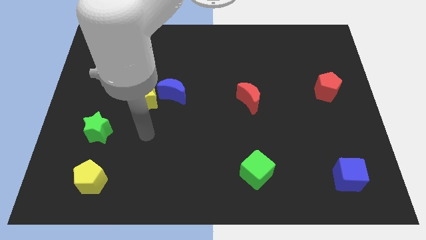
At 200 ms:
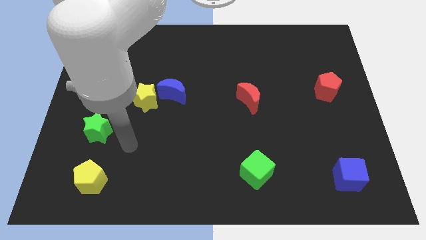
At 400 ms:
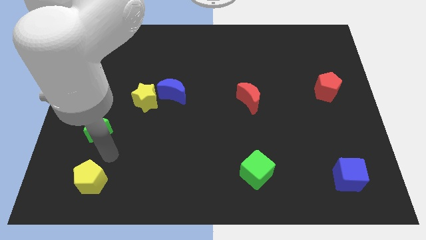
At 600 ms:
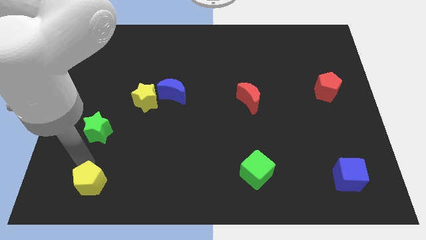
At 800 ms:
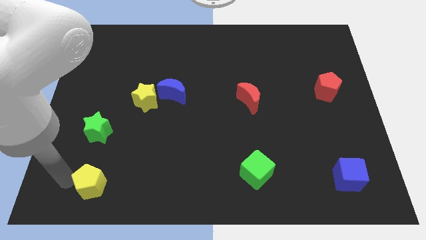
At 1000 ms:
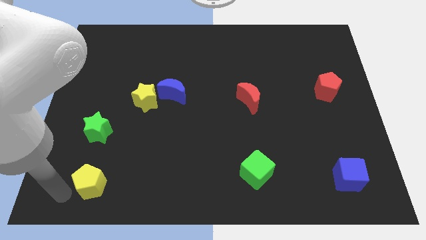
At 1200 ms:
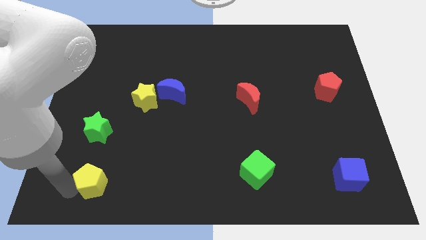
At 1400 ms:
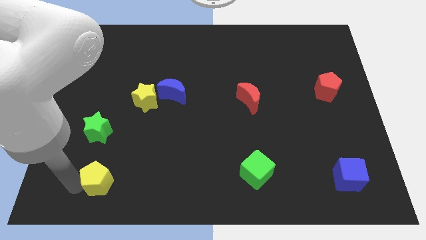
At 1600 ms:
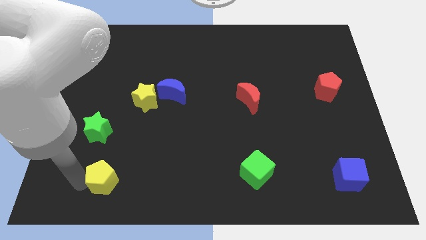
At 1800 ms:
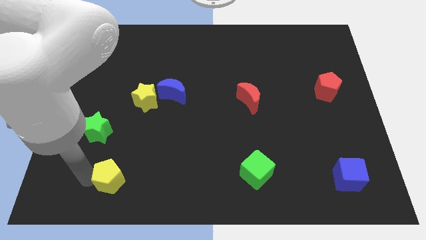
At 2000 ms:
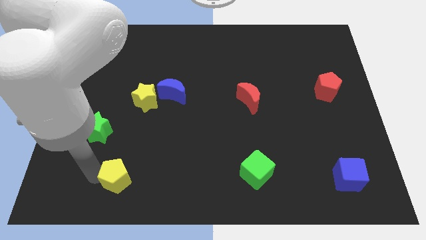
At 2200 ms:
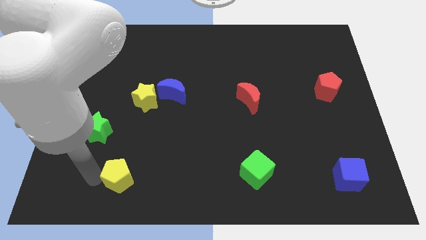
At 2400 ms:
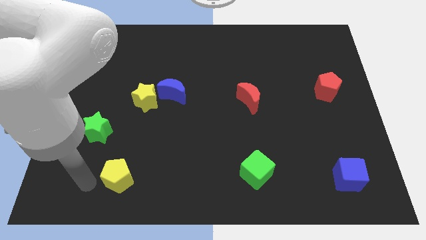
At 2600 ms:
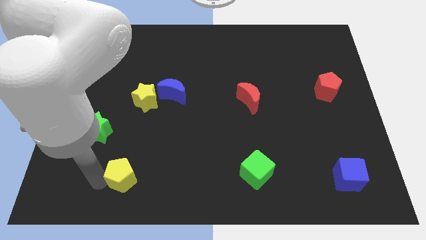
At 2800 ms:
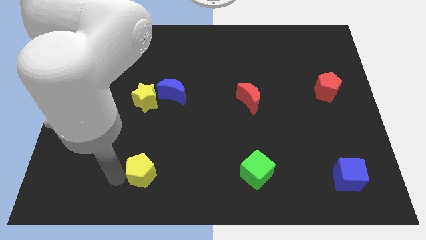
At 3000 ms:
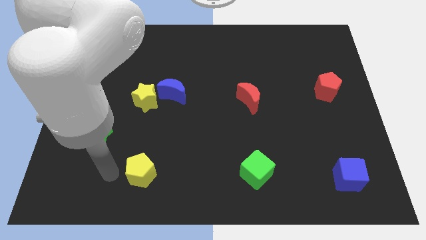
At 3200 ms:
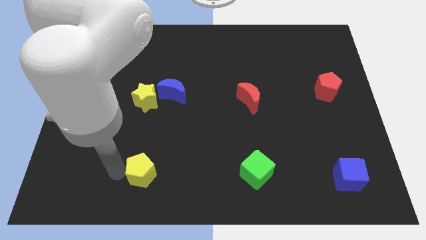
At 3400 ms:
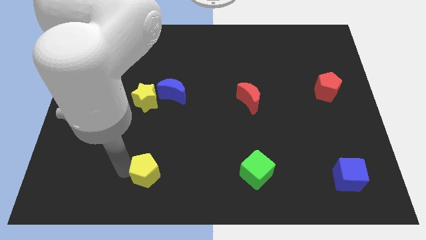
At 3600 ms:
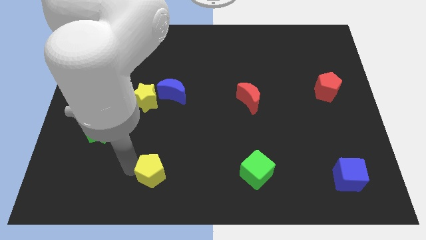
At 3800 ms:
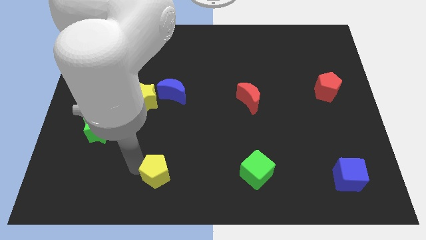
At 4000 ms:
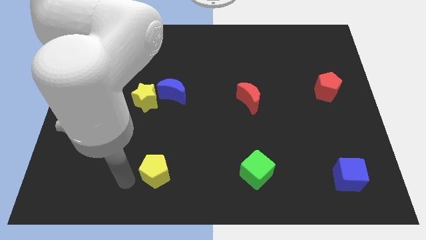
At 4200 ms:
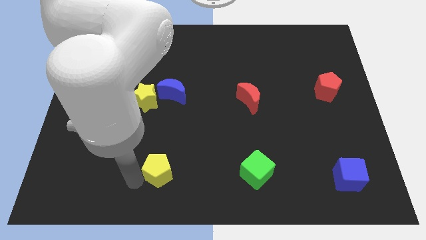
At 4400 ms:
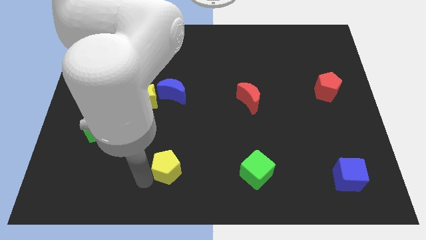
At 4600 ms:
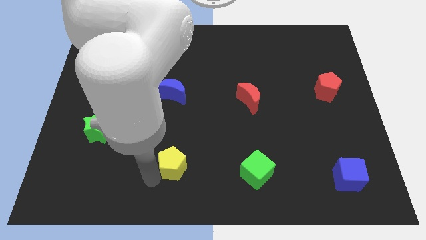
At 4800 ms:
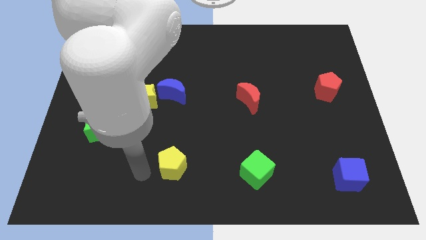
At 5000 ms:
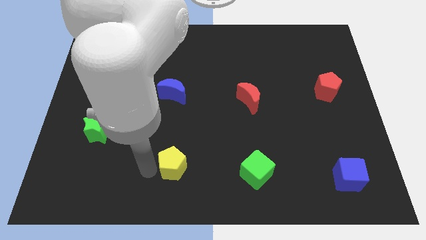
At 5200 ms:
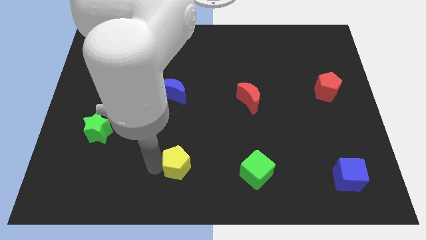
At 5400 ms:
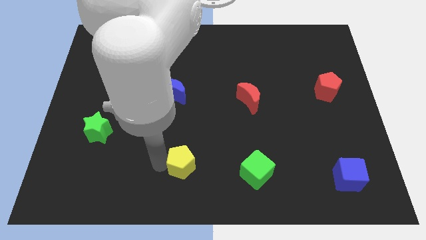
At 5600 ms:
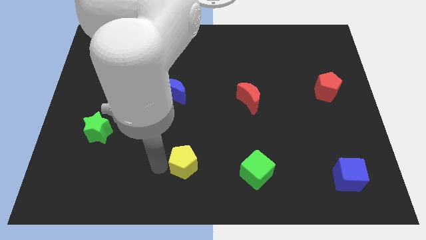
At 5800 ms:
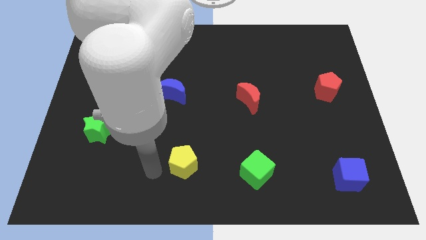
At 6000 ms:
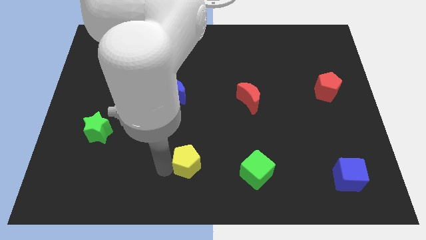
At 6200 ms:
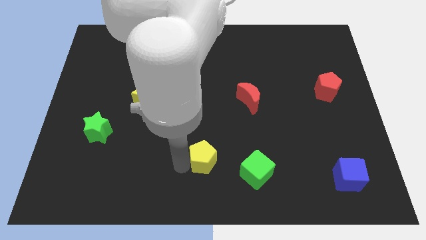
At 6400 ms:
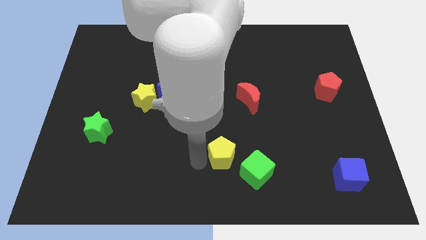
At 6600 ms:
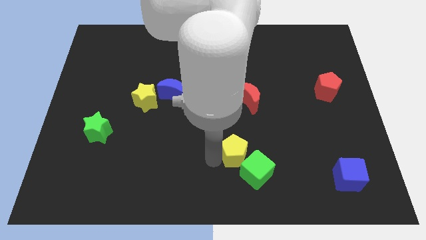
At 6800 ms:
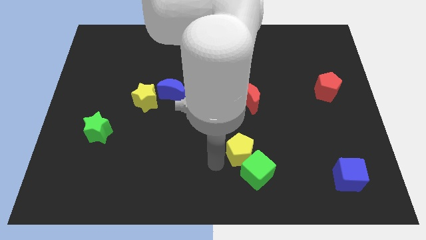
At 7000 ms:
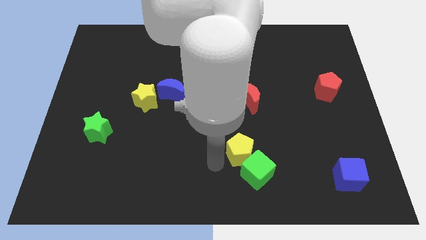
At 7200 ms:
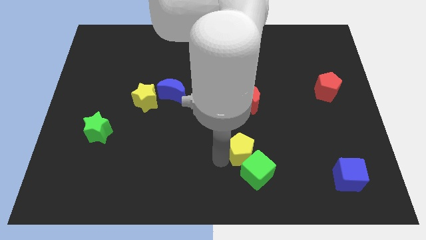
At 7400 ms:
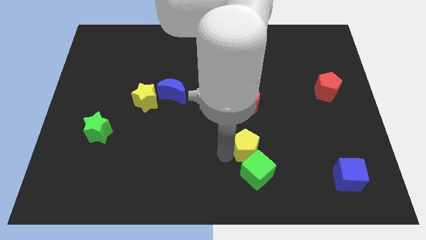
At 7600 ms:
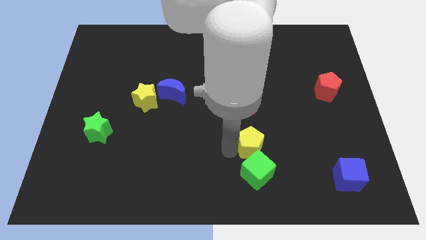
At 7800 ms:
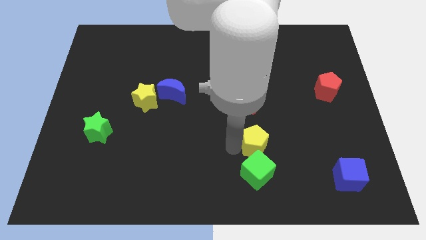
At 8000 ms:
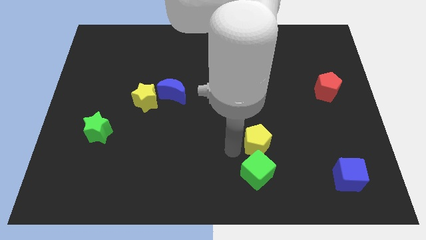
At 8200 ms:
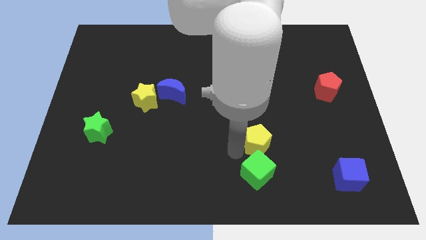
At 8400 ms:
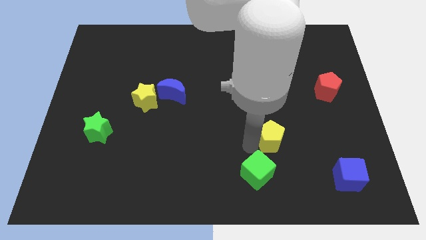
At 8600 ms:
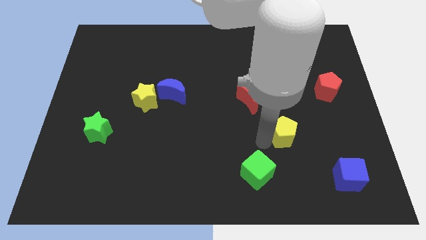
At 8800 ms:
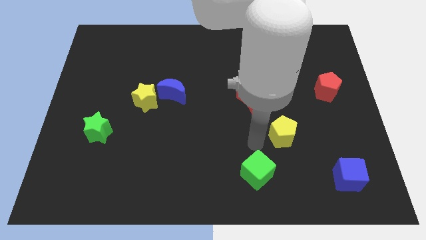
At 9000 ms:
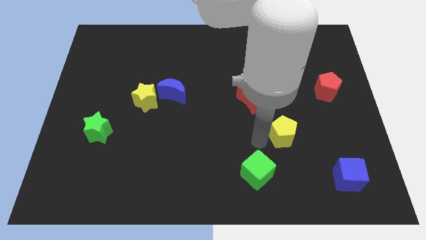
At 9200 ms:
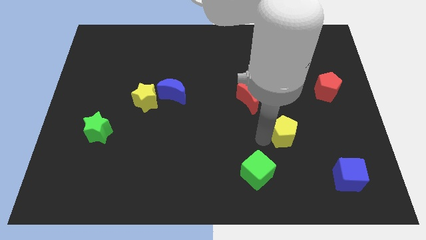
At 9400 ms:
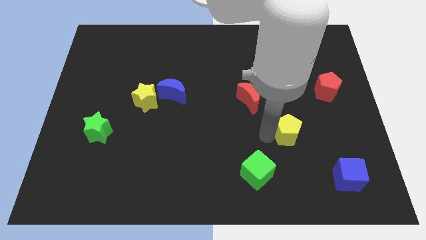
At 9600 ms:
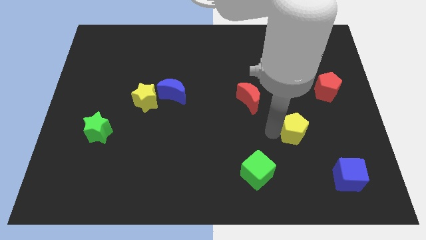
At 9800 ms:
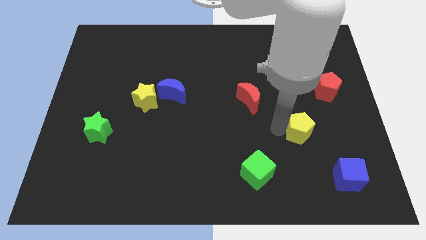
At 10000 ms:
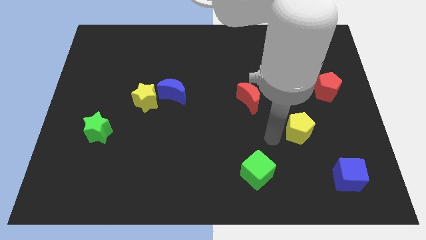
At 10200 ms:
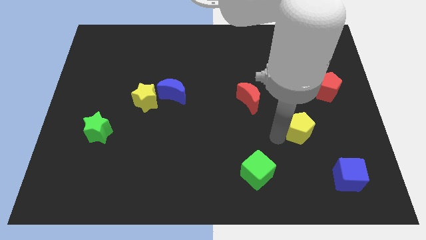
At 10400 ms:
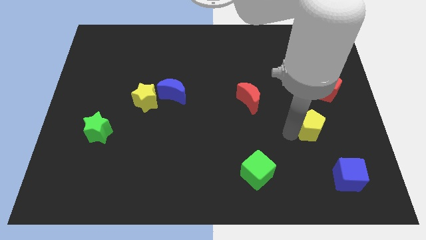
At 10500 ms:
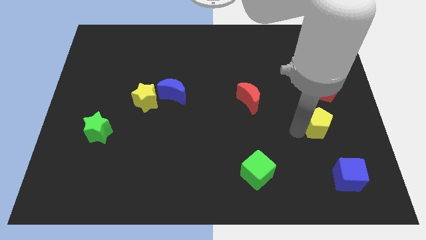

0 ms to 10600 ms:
put the yellow pentagon to the bottom of the red pentagon

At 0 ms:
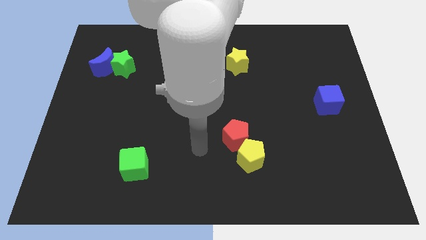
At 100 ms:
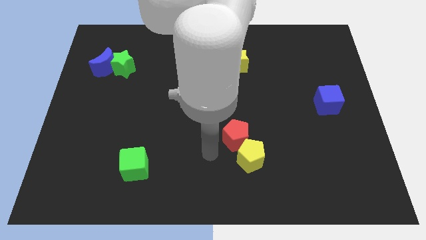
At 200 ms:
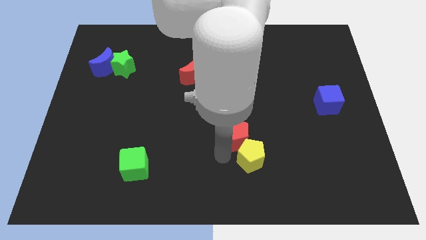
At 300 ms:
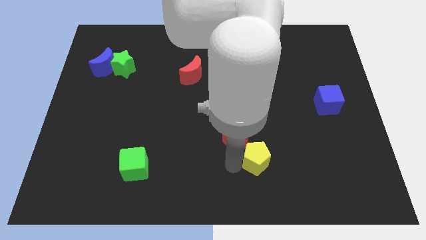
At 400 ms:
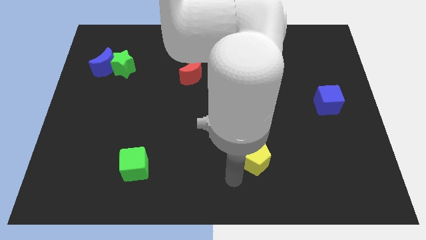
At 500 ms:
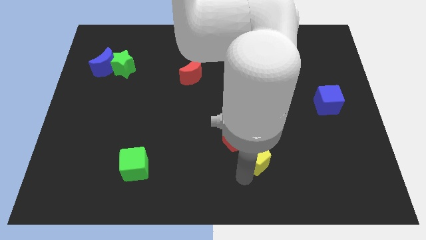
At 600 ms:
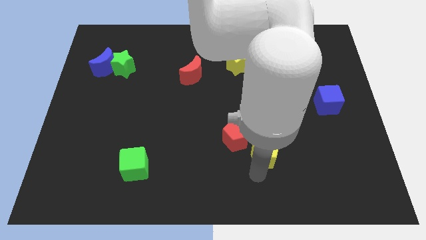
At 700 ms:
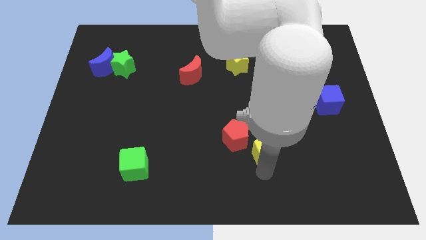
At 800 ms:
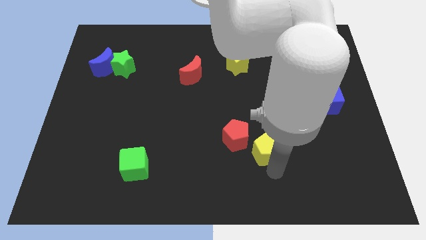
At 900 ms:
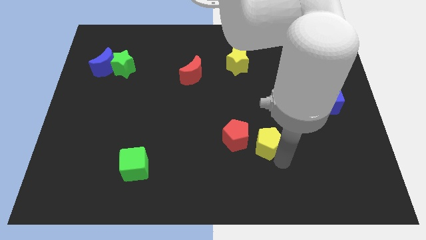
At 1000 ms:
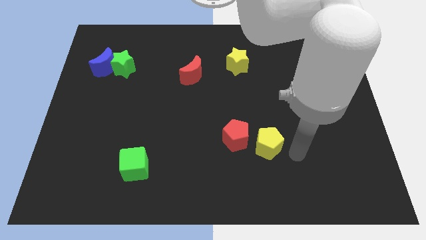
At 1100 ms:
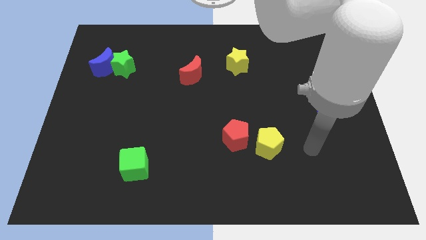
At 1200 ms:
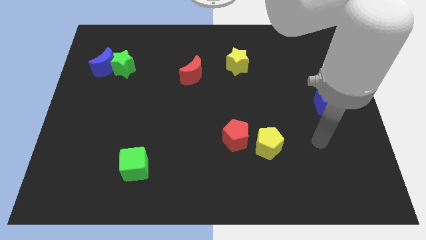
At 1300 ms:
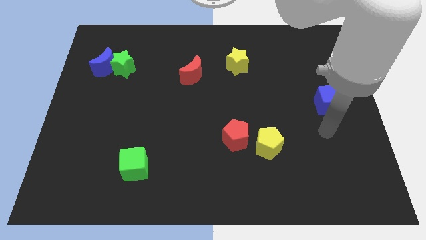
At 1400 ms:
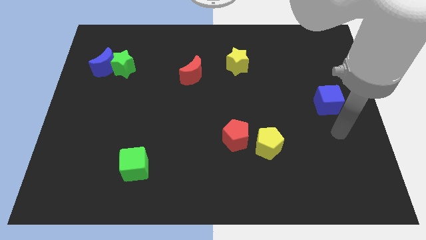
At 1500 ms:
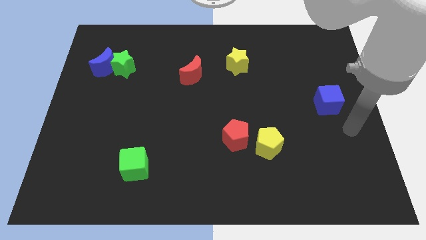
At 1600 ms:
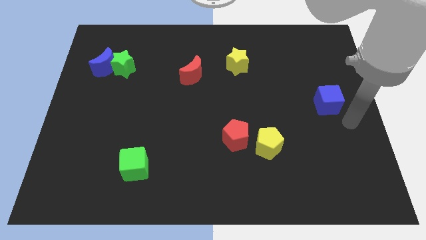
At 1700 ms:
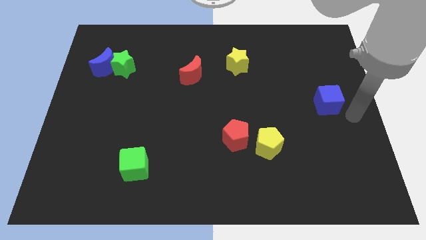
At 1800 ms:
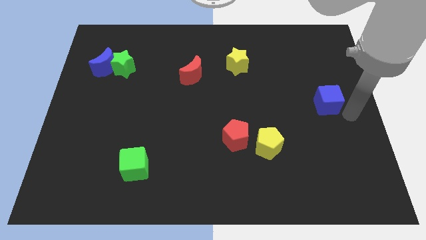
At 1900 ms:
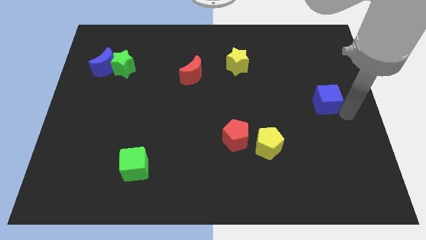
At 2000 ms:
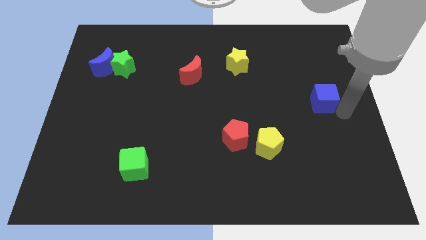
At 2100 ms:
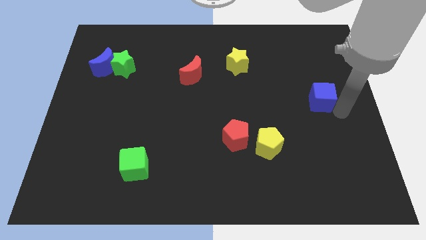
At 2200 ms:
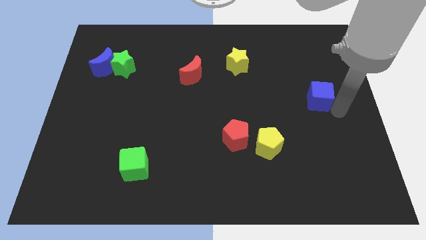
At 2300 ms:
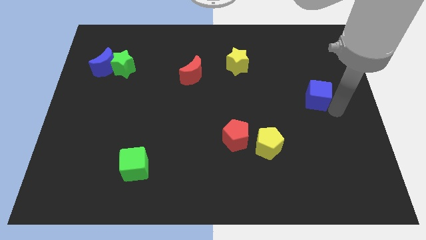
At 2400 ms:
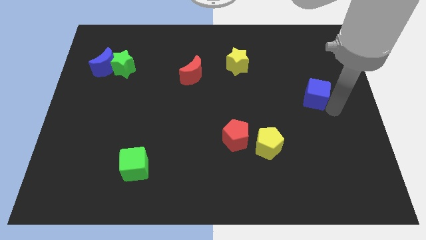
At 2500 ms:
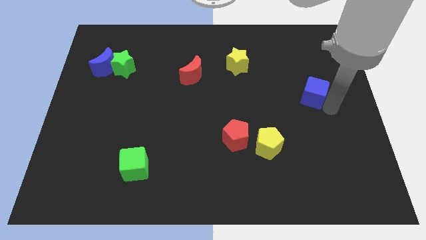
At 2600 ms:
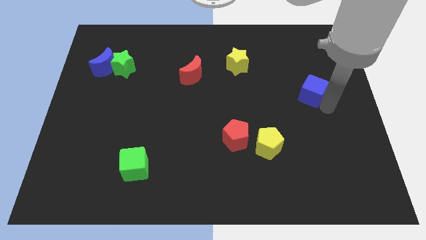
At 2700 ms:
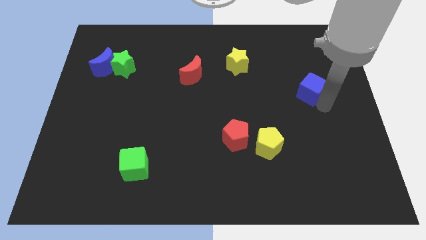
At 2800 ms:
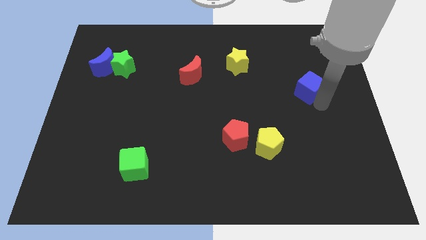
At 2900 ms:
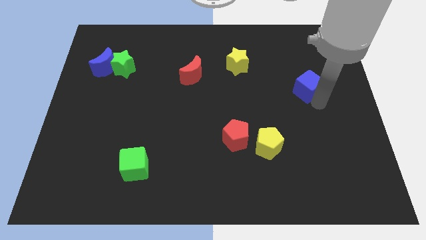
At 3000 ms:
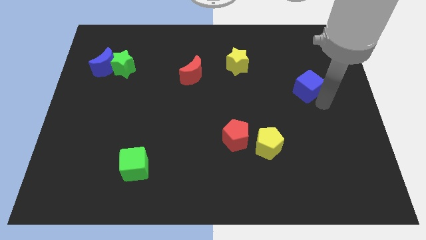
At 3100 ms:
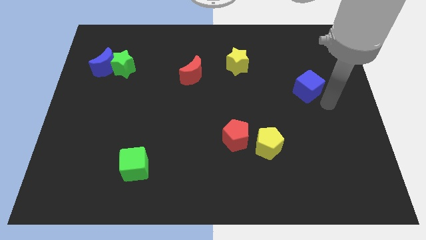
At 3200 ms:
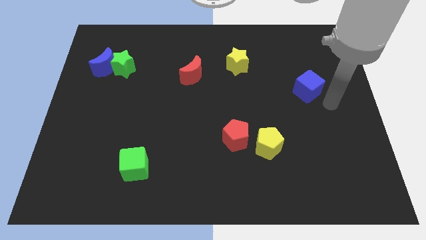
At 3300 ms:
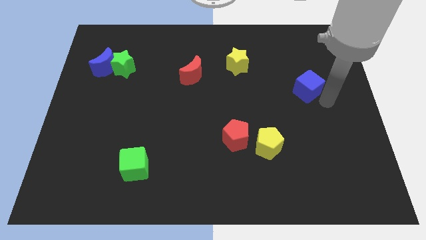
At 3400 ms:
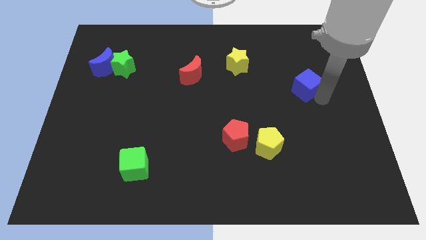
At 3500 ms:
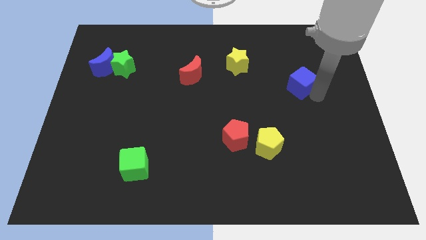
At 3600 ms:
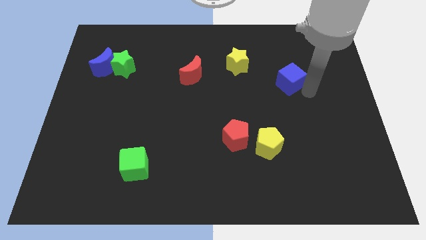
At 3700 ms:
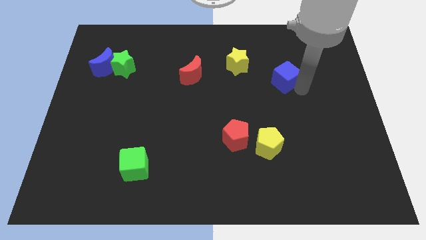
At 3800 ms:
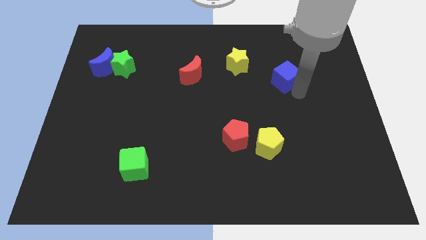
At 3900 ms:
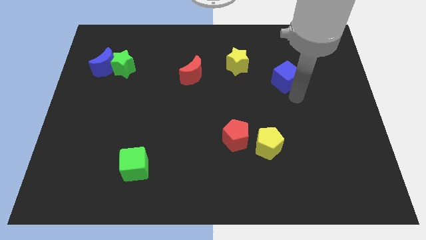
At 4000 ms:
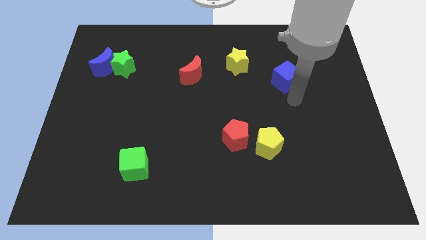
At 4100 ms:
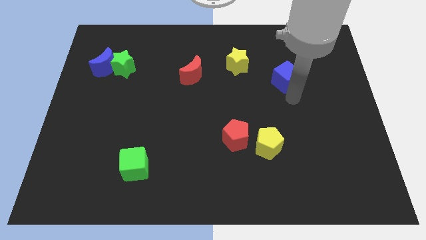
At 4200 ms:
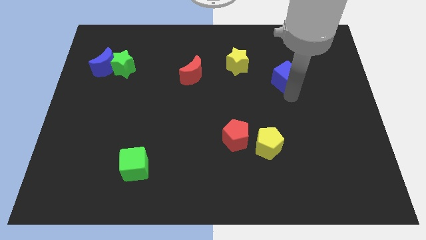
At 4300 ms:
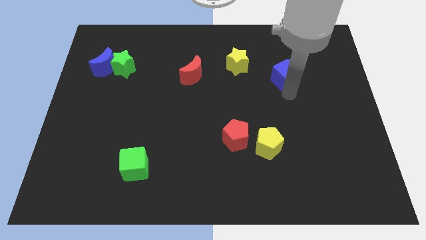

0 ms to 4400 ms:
slide the blue cube just right of the yellow star
